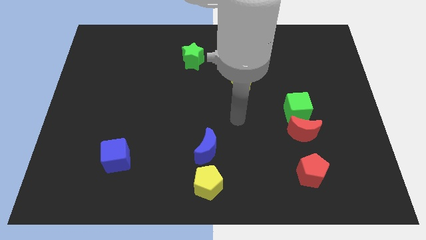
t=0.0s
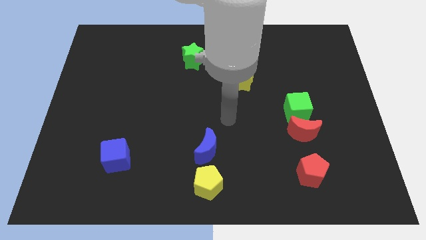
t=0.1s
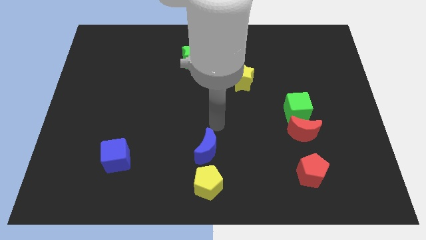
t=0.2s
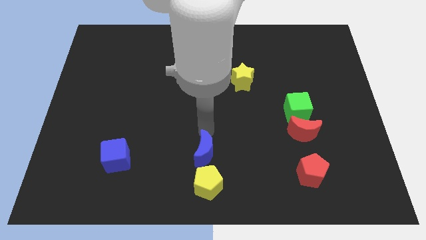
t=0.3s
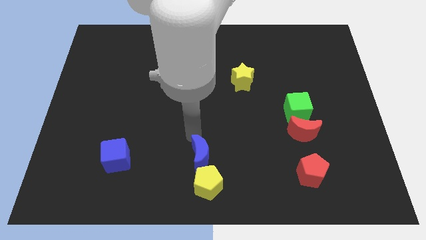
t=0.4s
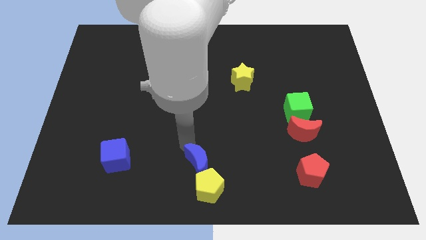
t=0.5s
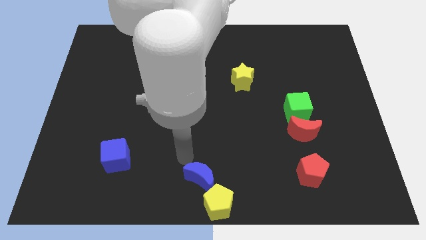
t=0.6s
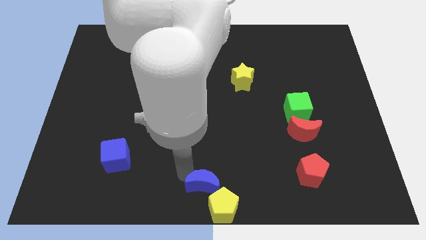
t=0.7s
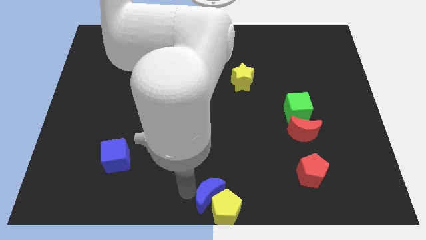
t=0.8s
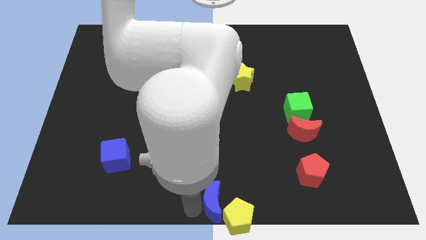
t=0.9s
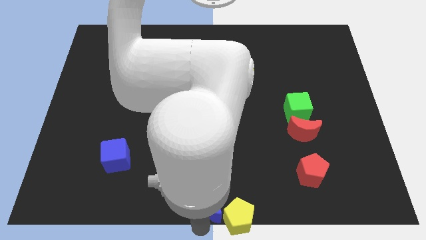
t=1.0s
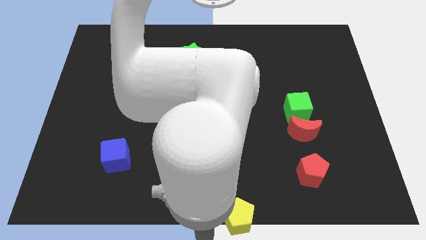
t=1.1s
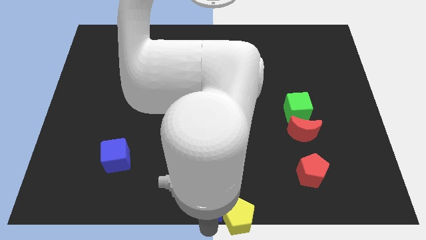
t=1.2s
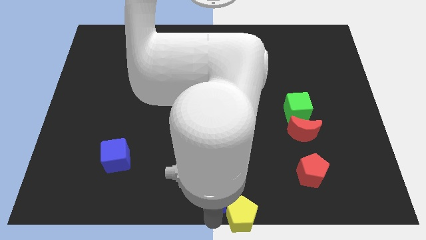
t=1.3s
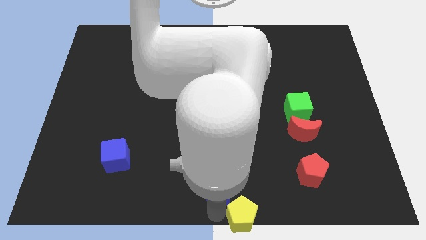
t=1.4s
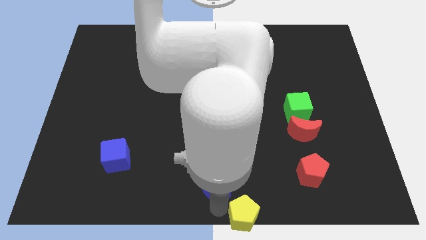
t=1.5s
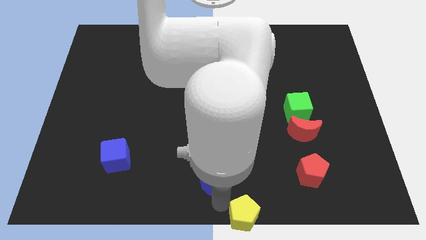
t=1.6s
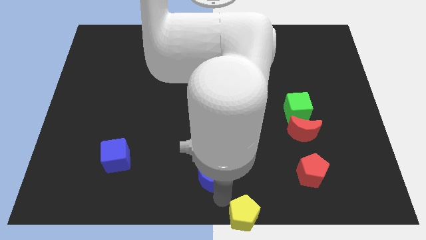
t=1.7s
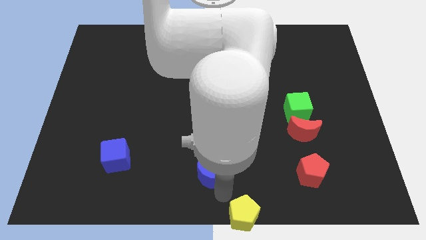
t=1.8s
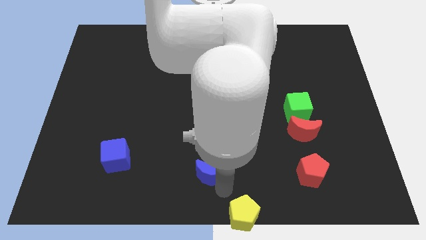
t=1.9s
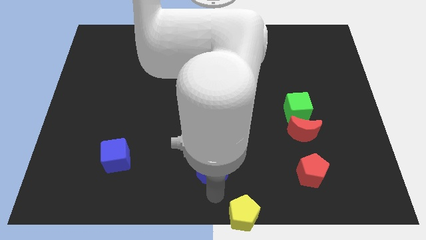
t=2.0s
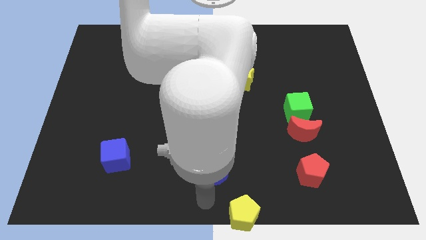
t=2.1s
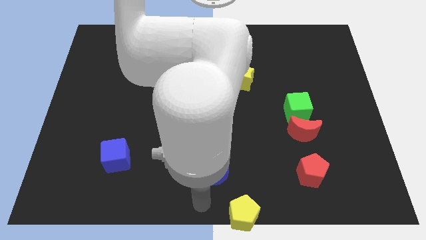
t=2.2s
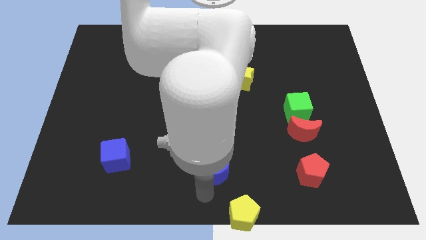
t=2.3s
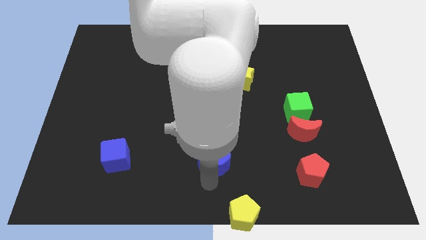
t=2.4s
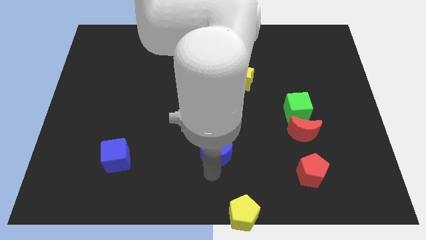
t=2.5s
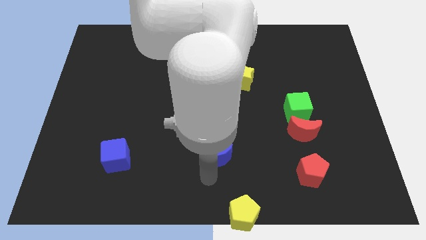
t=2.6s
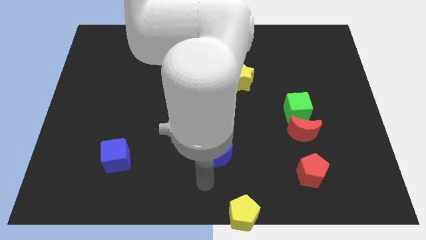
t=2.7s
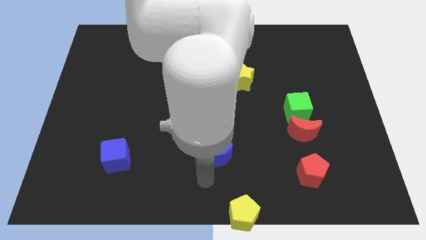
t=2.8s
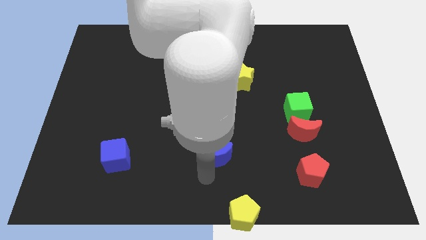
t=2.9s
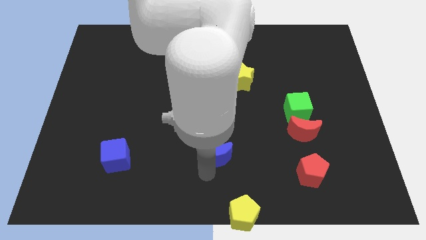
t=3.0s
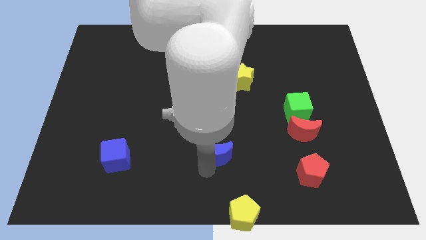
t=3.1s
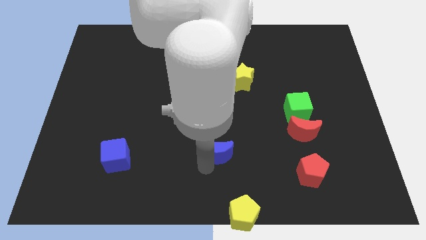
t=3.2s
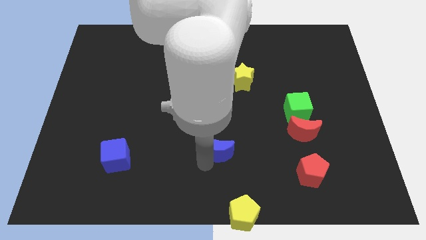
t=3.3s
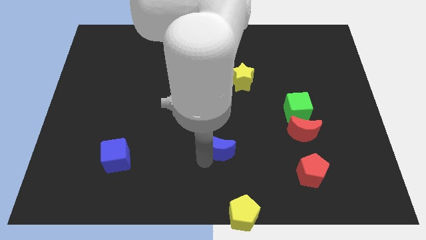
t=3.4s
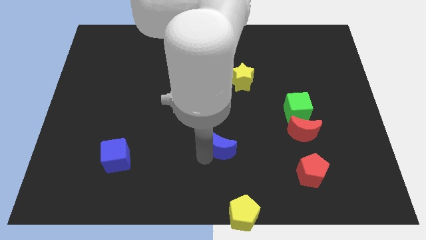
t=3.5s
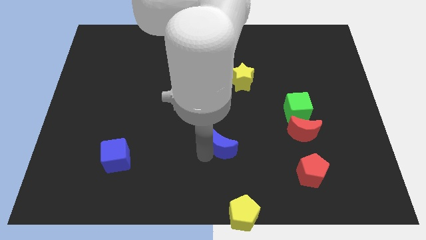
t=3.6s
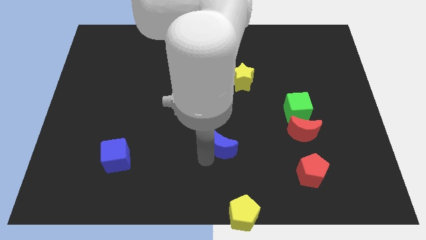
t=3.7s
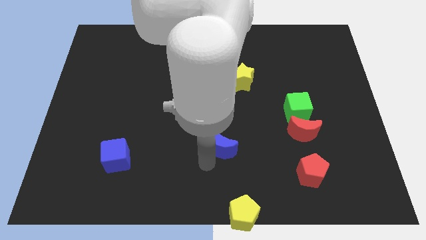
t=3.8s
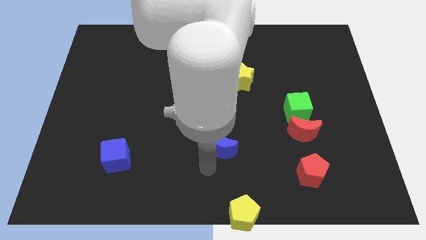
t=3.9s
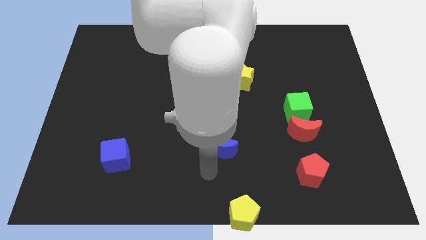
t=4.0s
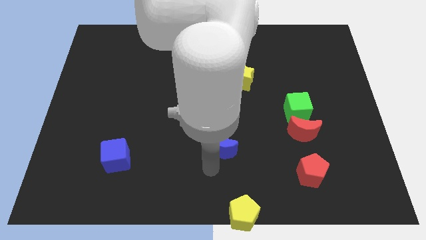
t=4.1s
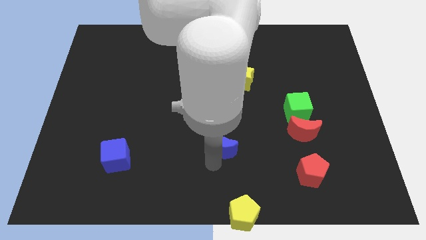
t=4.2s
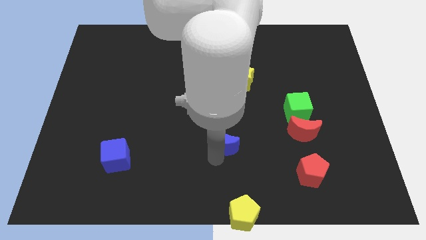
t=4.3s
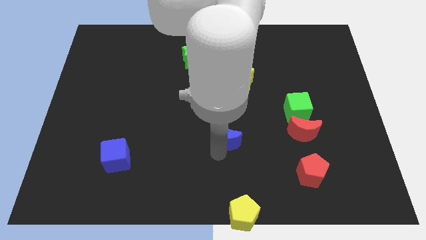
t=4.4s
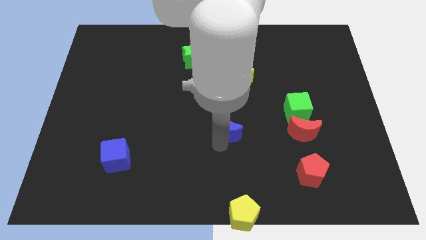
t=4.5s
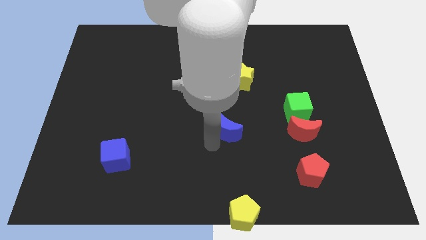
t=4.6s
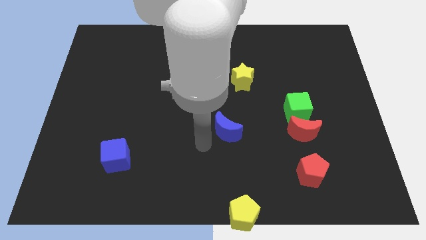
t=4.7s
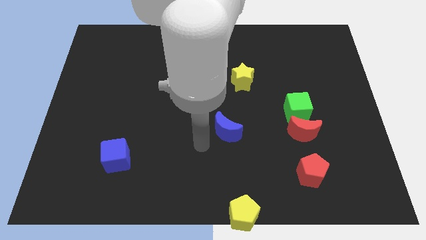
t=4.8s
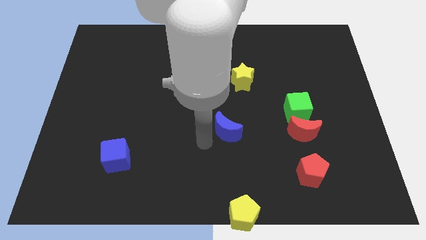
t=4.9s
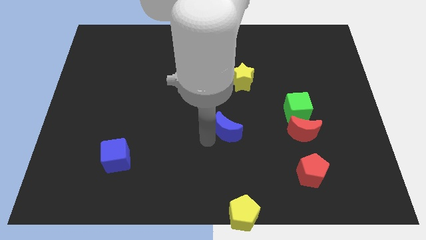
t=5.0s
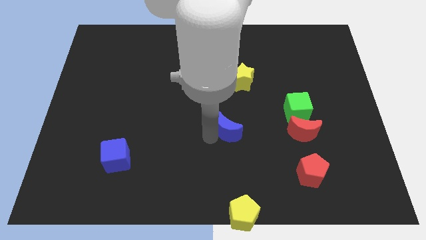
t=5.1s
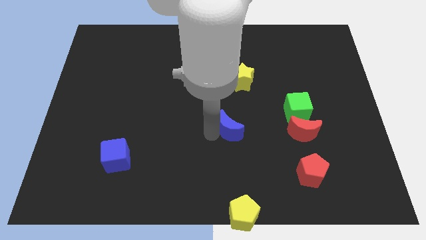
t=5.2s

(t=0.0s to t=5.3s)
slightly move the blue moon up and right diagonally

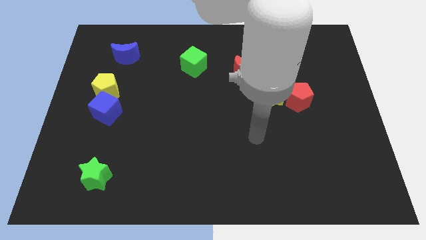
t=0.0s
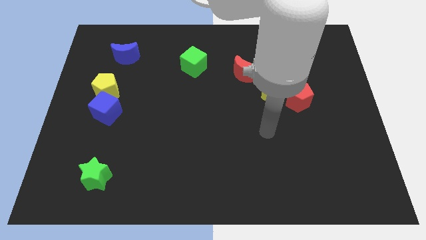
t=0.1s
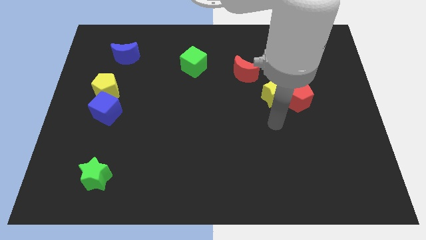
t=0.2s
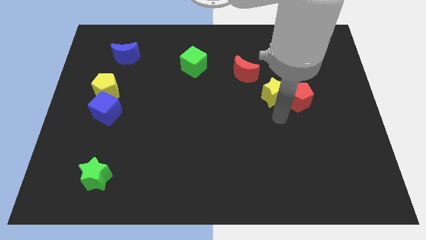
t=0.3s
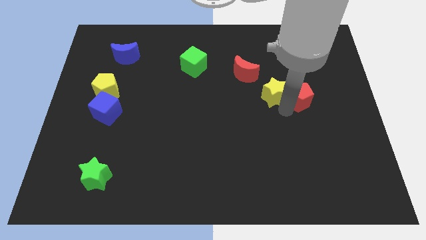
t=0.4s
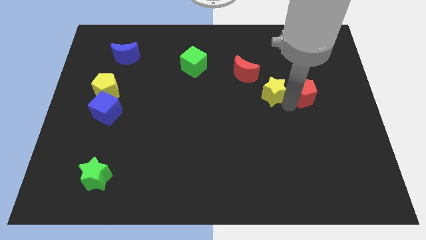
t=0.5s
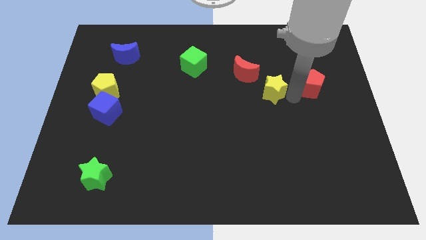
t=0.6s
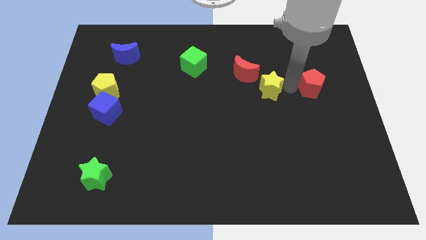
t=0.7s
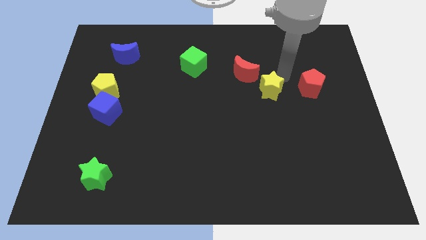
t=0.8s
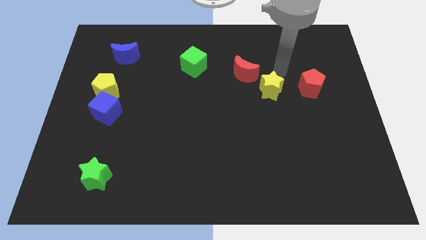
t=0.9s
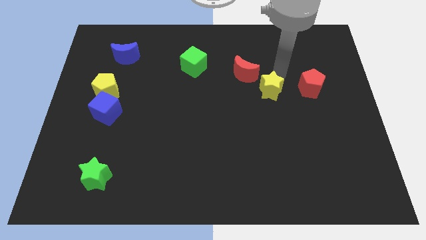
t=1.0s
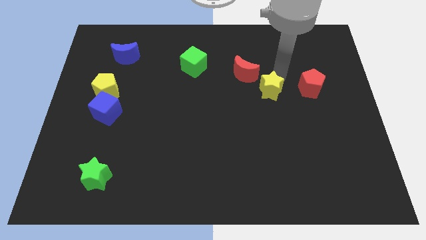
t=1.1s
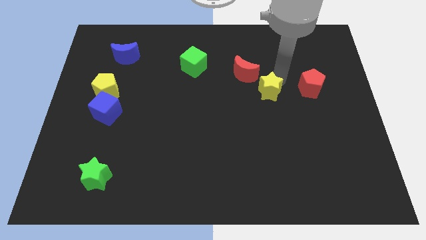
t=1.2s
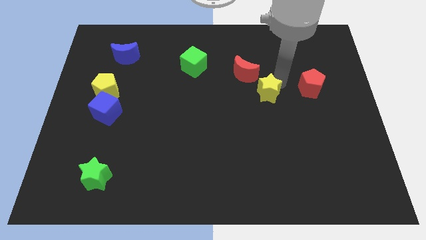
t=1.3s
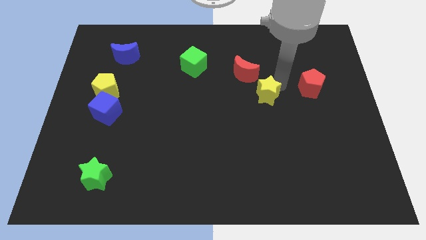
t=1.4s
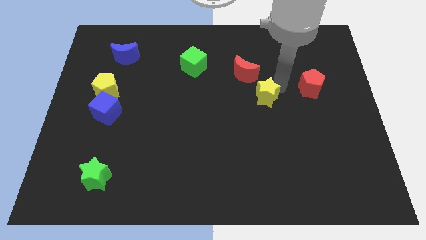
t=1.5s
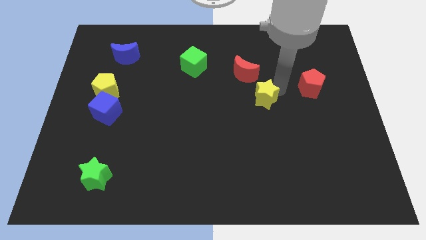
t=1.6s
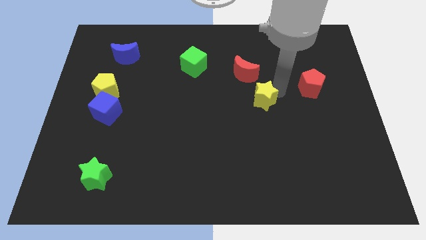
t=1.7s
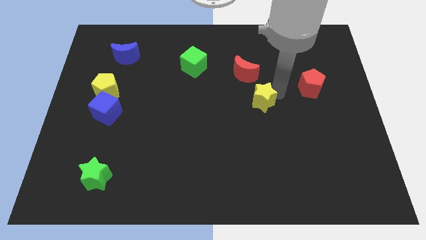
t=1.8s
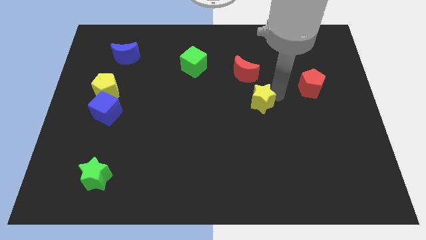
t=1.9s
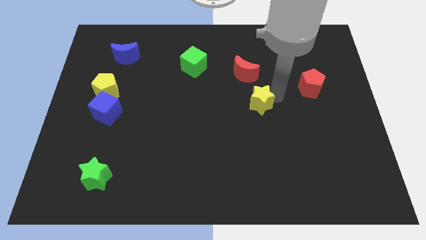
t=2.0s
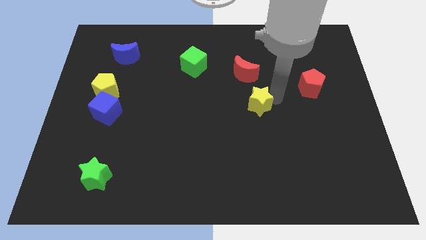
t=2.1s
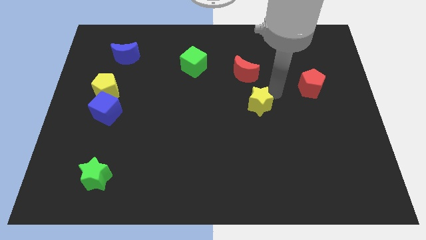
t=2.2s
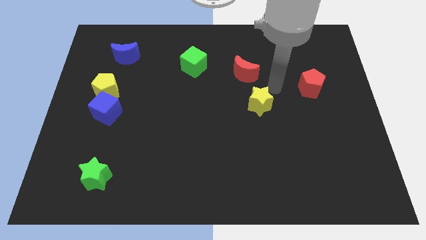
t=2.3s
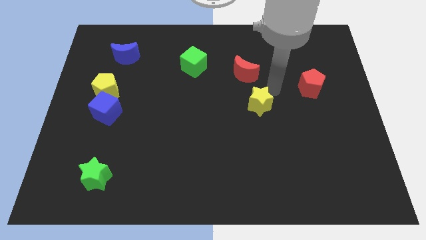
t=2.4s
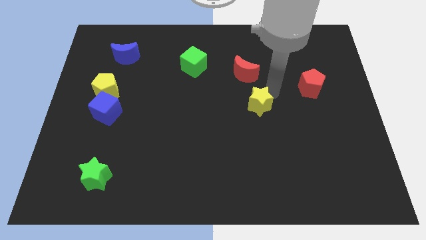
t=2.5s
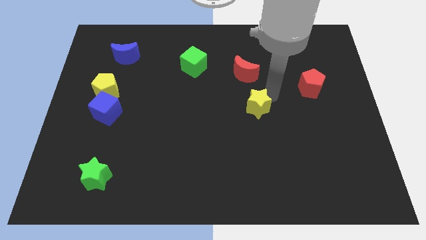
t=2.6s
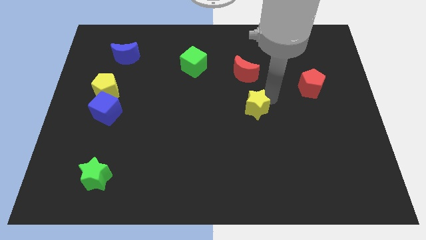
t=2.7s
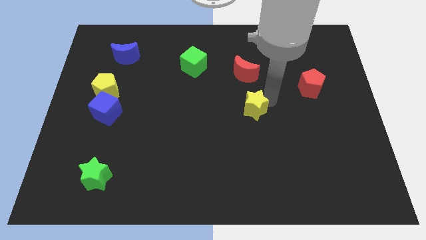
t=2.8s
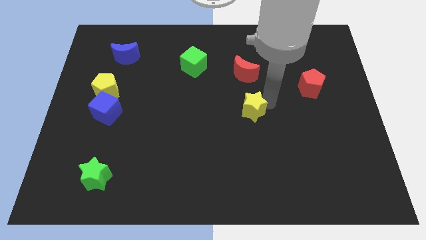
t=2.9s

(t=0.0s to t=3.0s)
slide the yellow star diagonally down and to the left a bit
